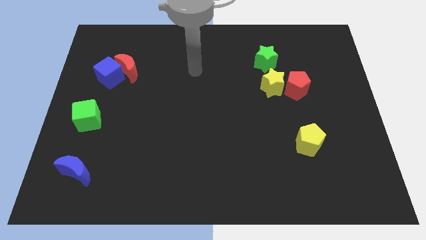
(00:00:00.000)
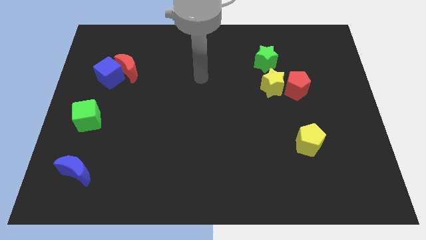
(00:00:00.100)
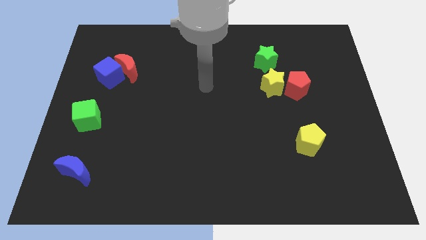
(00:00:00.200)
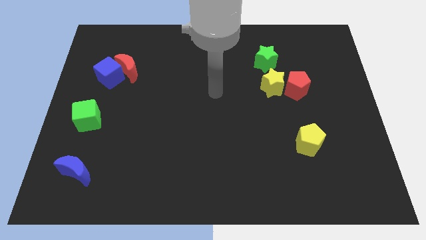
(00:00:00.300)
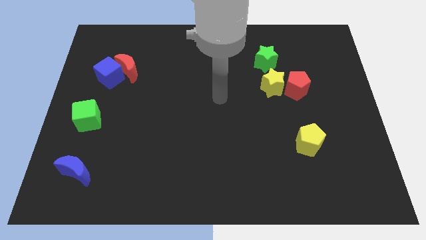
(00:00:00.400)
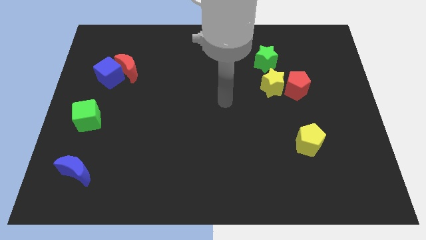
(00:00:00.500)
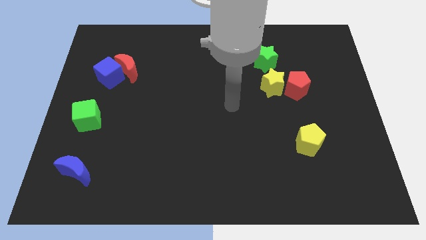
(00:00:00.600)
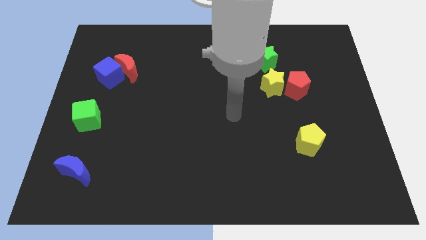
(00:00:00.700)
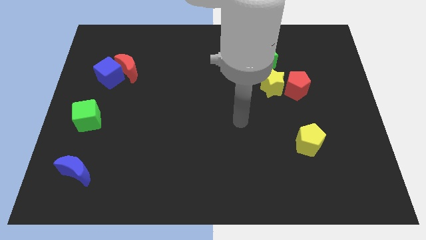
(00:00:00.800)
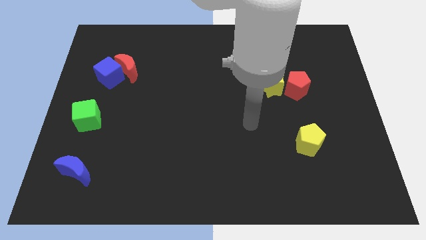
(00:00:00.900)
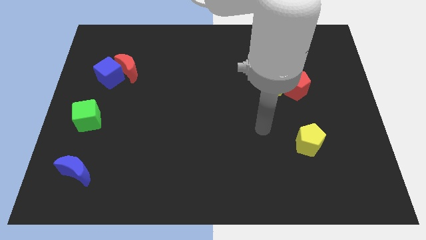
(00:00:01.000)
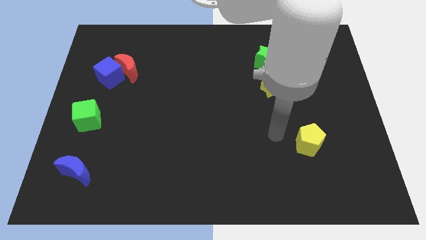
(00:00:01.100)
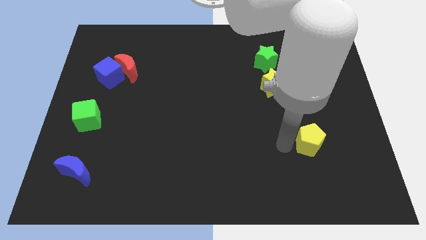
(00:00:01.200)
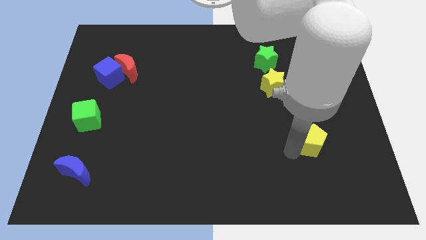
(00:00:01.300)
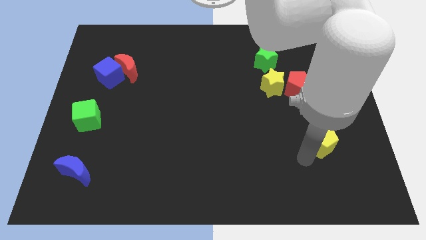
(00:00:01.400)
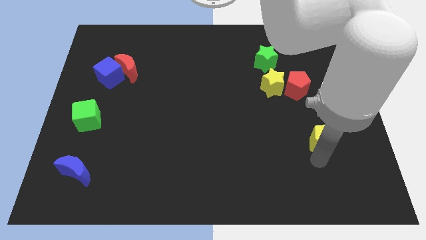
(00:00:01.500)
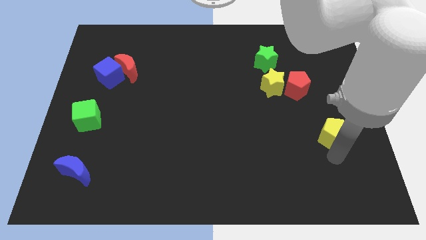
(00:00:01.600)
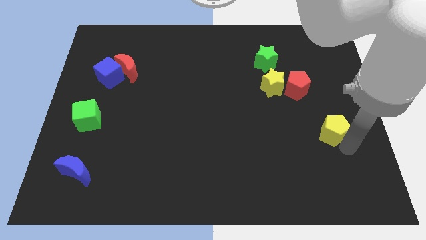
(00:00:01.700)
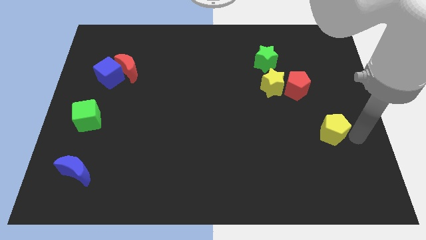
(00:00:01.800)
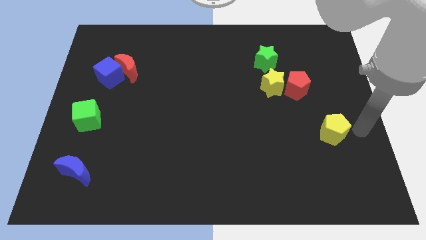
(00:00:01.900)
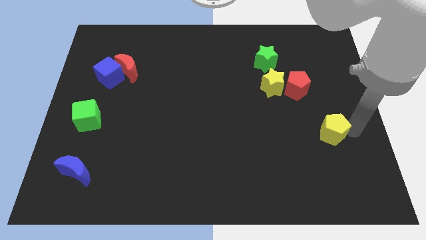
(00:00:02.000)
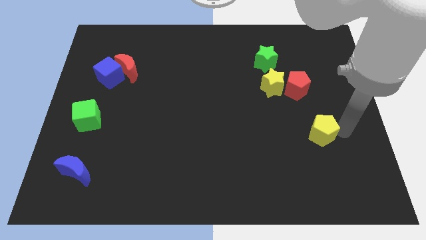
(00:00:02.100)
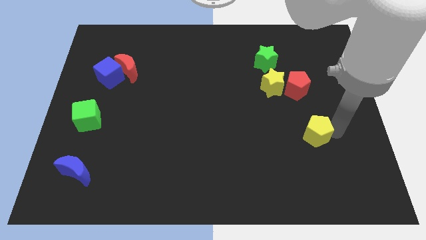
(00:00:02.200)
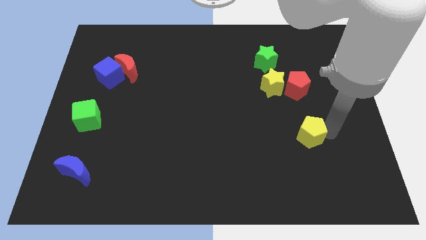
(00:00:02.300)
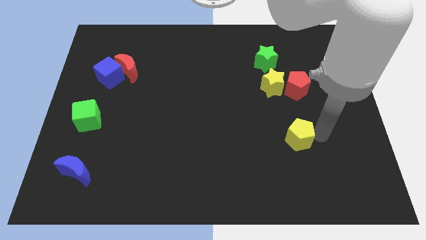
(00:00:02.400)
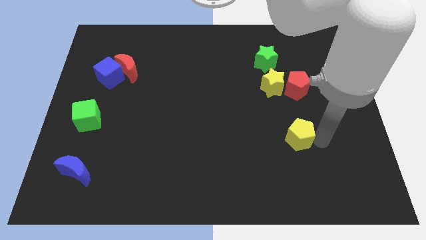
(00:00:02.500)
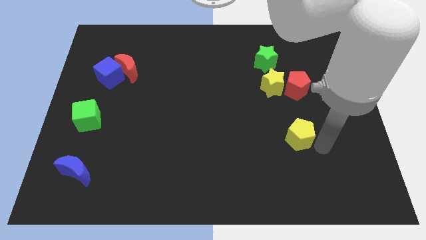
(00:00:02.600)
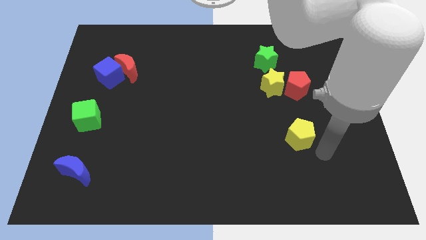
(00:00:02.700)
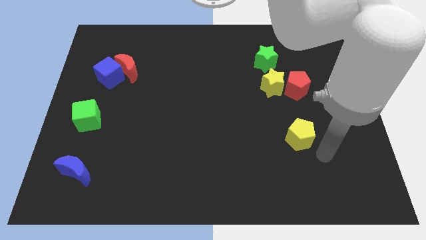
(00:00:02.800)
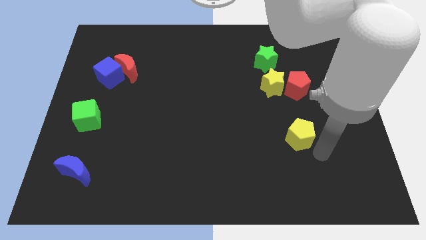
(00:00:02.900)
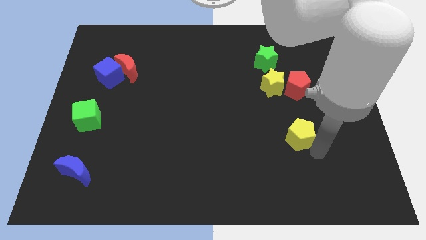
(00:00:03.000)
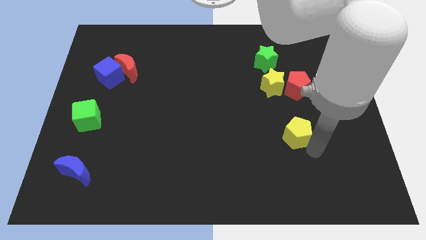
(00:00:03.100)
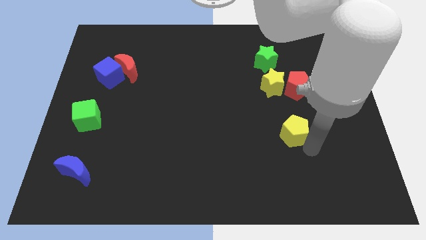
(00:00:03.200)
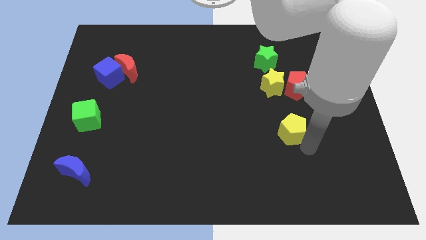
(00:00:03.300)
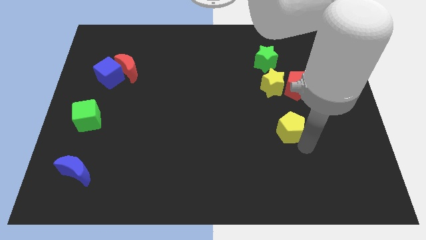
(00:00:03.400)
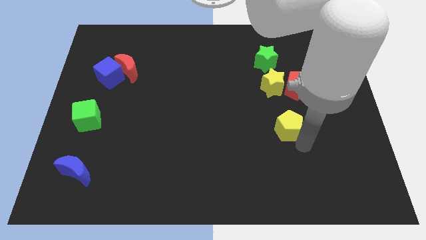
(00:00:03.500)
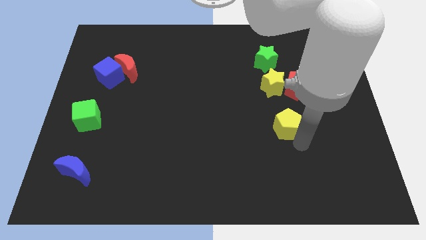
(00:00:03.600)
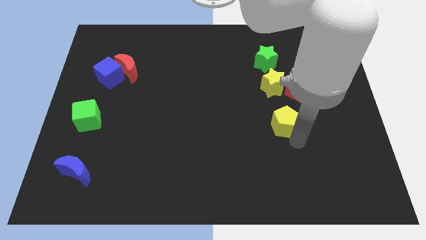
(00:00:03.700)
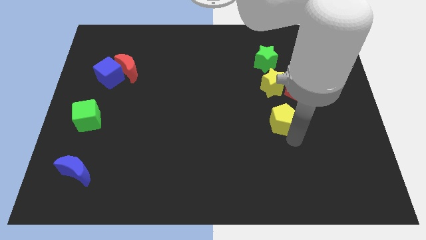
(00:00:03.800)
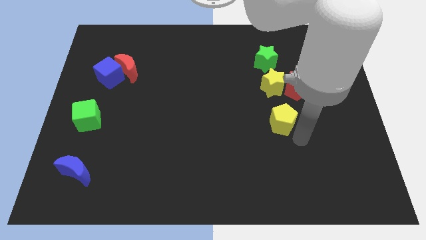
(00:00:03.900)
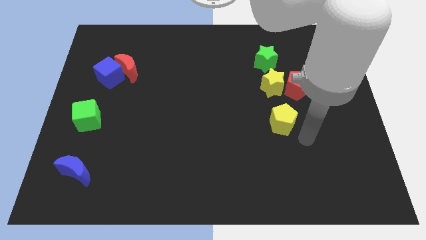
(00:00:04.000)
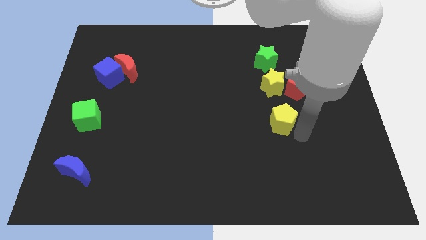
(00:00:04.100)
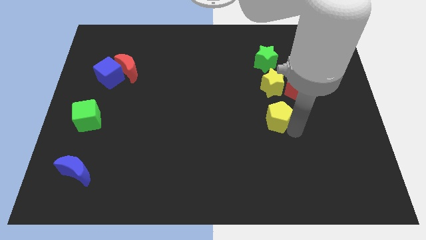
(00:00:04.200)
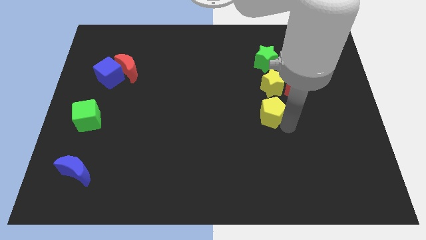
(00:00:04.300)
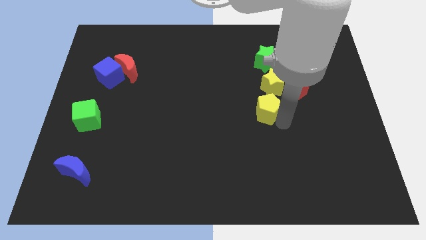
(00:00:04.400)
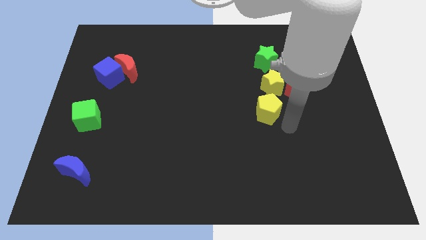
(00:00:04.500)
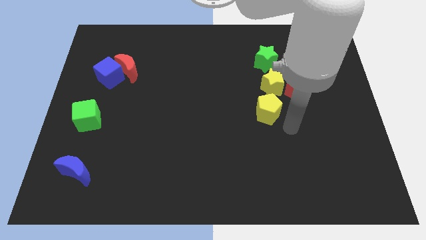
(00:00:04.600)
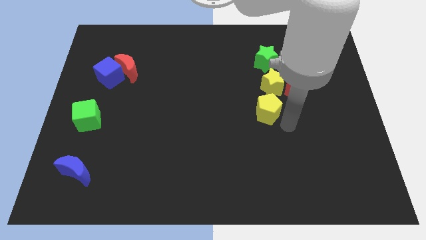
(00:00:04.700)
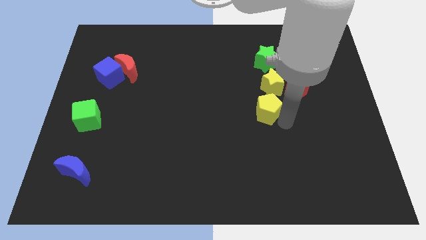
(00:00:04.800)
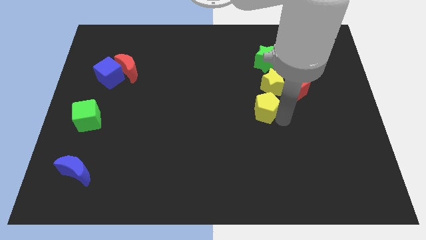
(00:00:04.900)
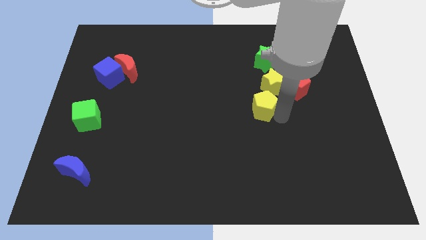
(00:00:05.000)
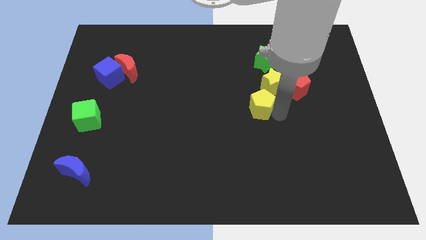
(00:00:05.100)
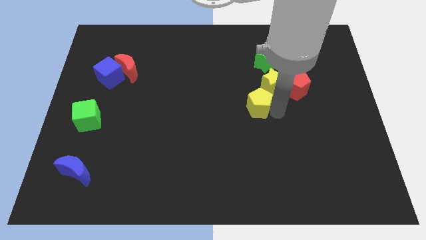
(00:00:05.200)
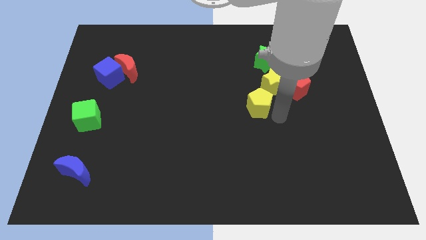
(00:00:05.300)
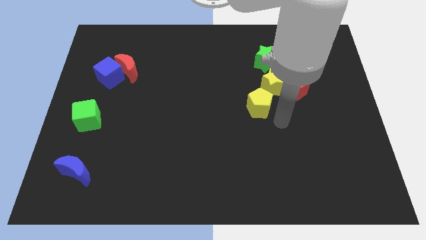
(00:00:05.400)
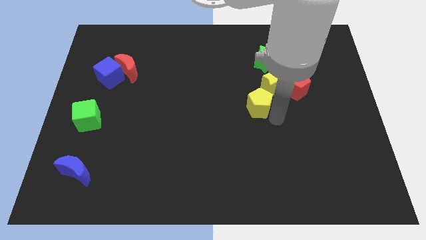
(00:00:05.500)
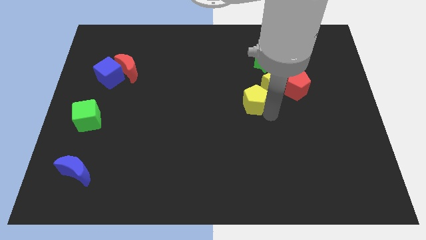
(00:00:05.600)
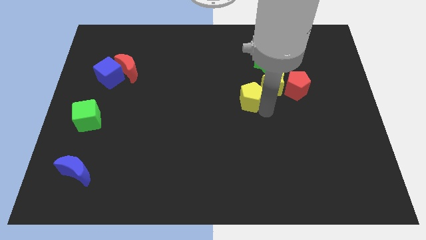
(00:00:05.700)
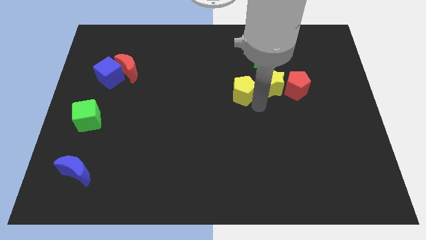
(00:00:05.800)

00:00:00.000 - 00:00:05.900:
push the yellow pentagon diagonally up and to the left

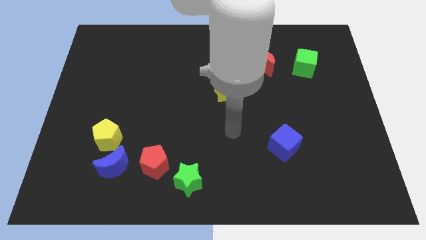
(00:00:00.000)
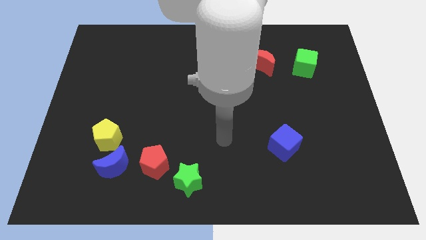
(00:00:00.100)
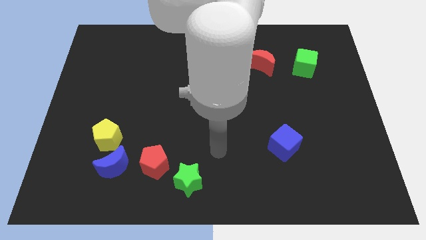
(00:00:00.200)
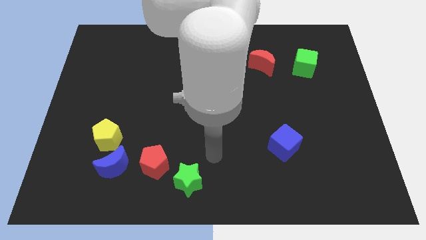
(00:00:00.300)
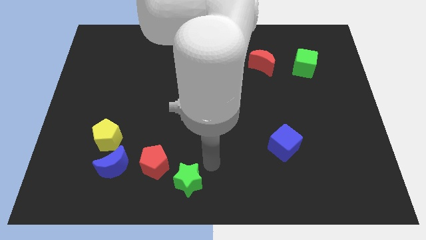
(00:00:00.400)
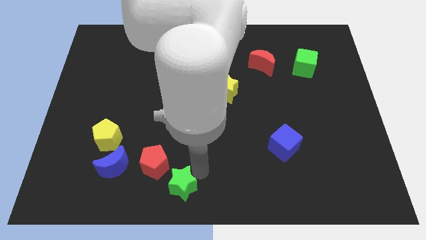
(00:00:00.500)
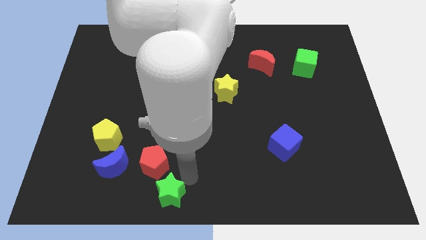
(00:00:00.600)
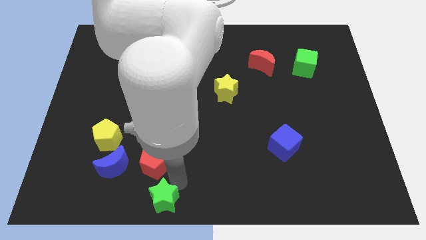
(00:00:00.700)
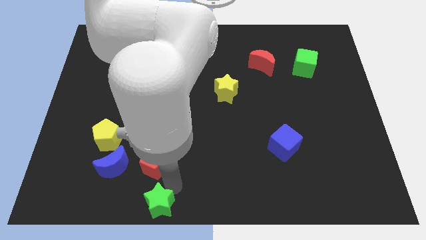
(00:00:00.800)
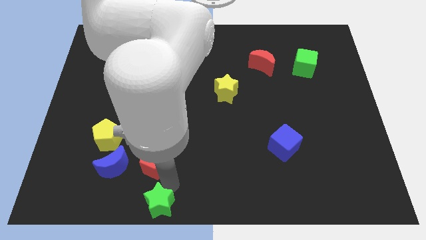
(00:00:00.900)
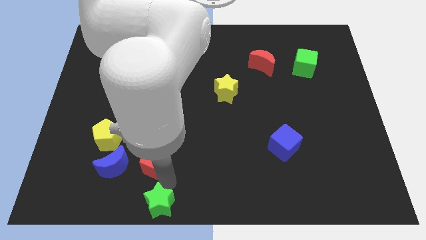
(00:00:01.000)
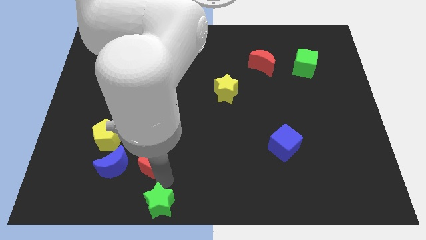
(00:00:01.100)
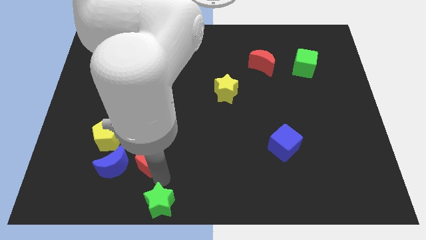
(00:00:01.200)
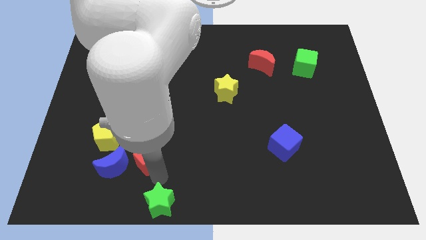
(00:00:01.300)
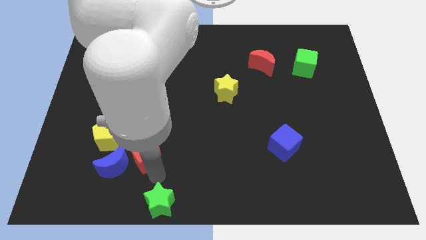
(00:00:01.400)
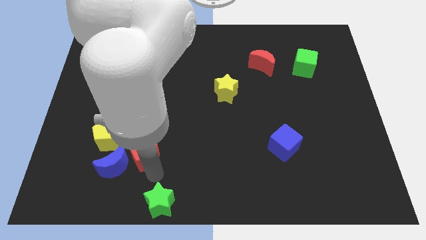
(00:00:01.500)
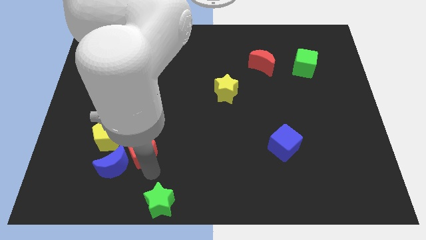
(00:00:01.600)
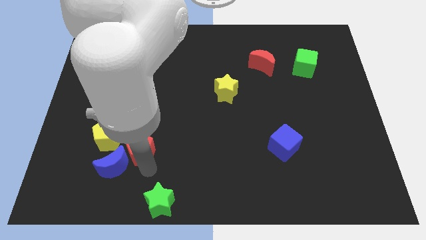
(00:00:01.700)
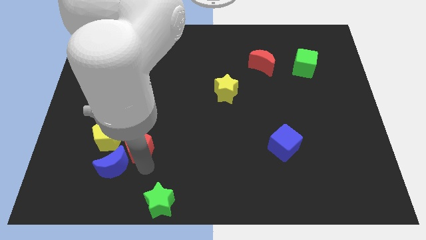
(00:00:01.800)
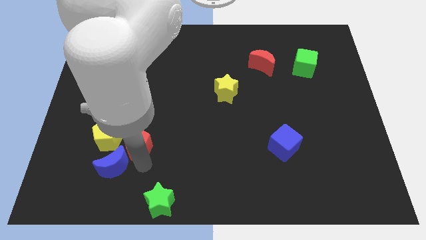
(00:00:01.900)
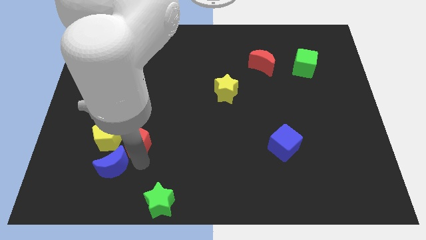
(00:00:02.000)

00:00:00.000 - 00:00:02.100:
push the red pentagon slightly upwards and then left

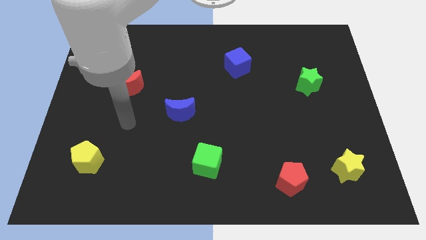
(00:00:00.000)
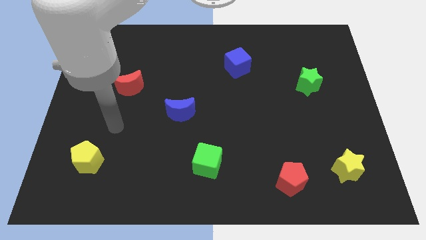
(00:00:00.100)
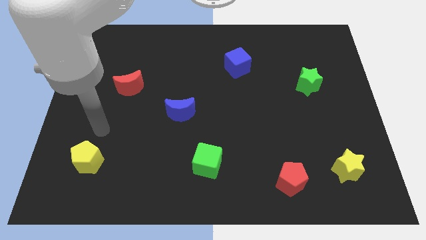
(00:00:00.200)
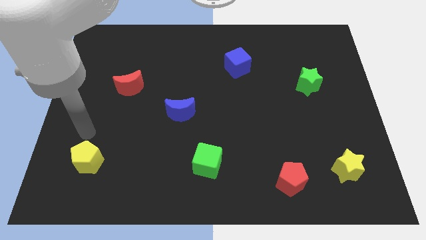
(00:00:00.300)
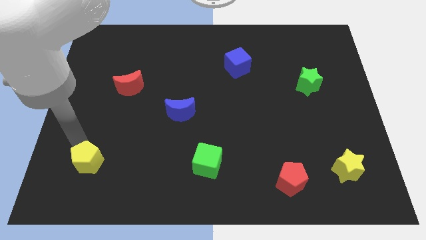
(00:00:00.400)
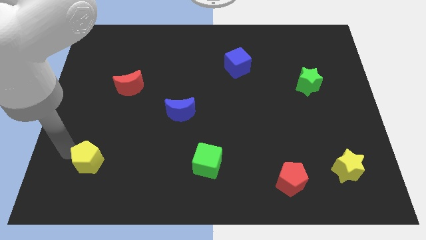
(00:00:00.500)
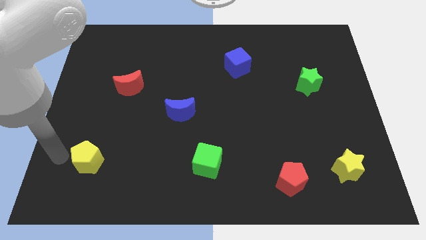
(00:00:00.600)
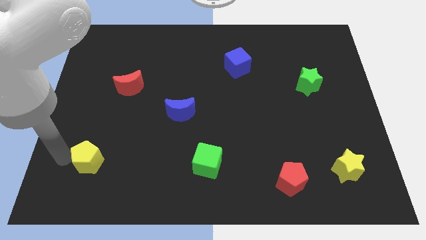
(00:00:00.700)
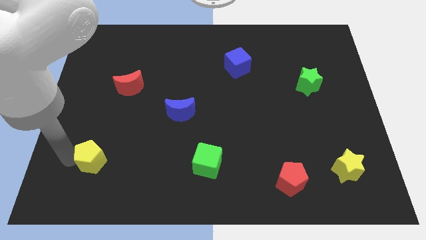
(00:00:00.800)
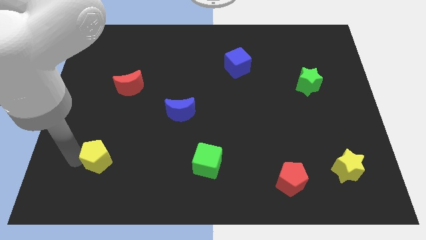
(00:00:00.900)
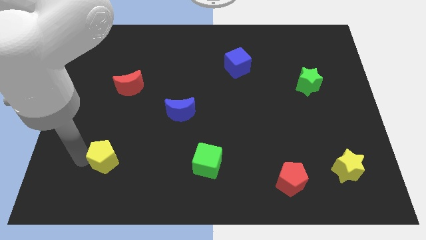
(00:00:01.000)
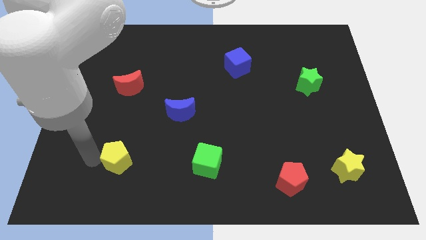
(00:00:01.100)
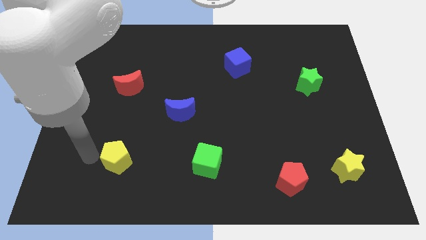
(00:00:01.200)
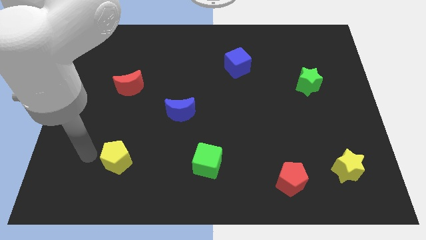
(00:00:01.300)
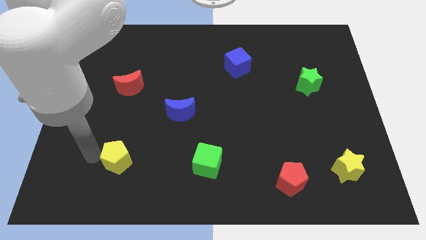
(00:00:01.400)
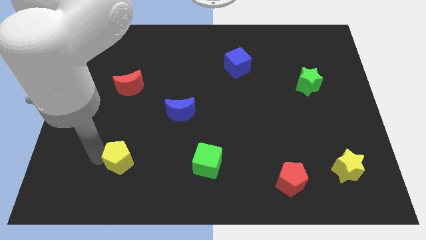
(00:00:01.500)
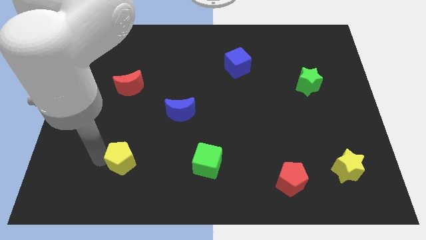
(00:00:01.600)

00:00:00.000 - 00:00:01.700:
slide the yellow pentagon slightly right
